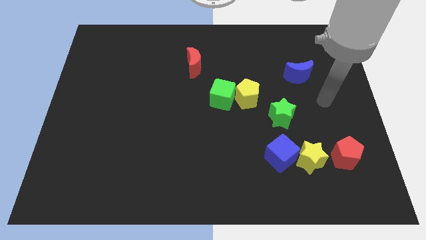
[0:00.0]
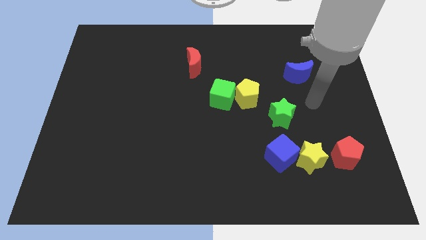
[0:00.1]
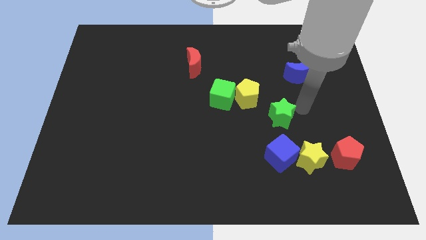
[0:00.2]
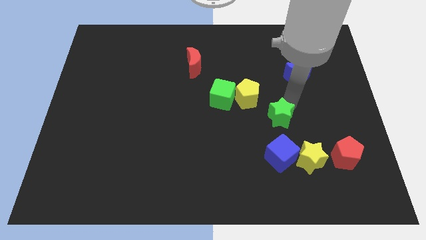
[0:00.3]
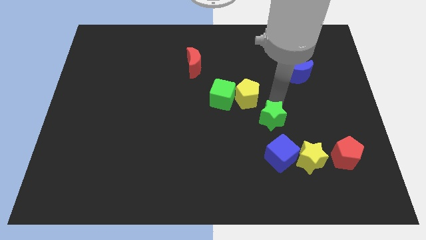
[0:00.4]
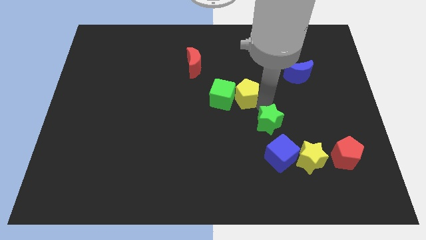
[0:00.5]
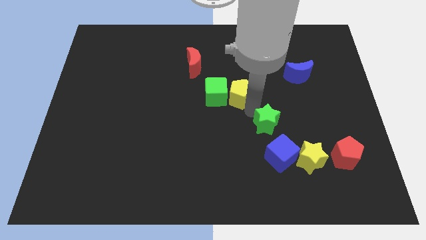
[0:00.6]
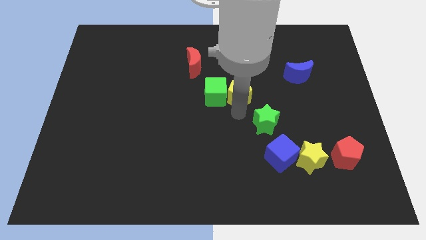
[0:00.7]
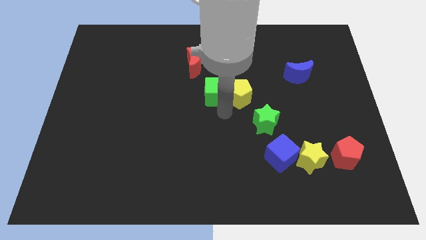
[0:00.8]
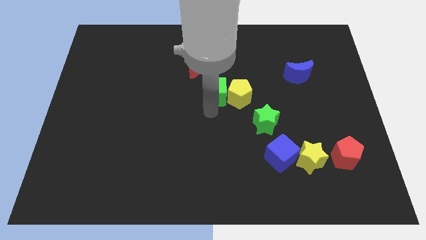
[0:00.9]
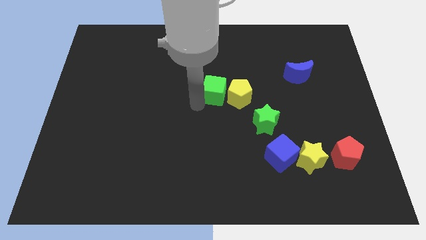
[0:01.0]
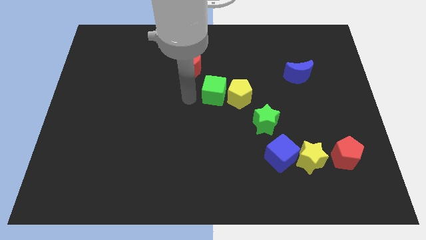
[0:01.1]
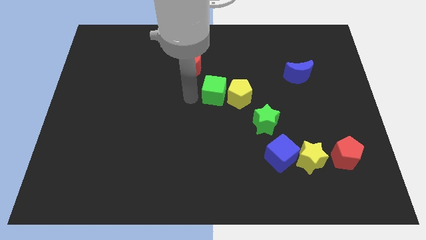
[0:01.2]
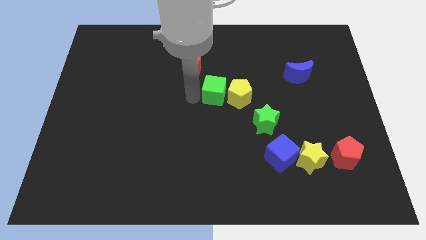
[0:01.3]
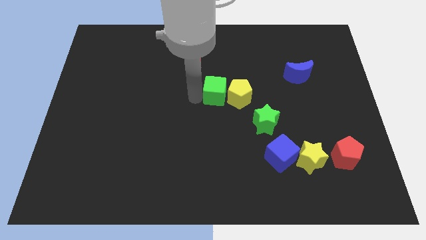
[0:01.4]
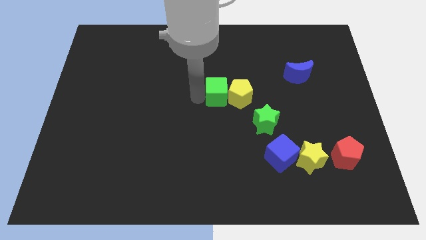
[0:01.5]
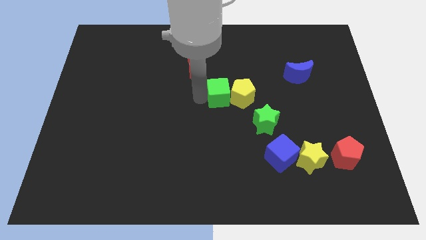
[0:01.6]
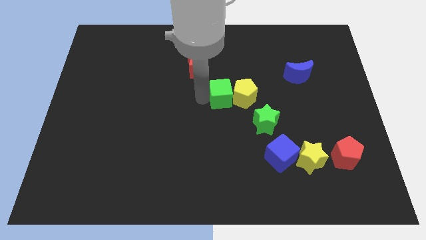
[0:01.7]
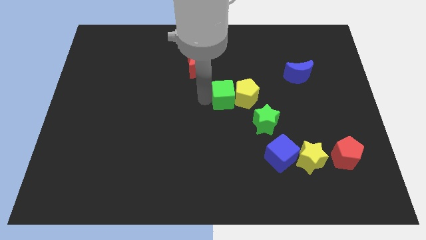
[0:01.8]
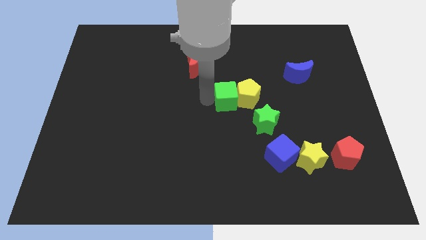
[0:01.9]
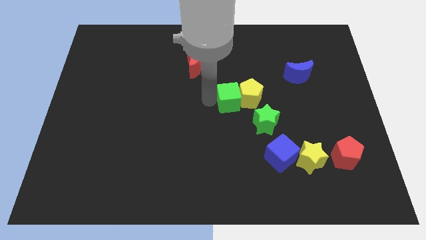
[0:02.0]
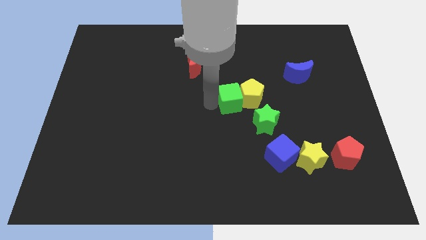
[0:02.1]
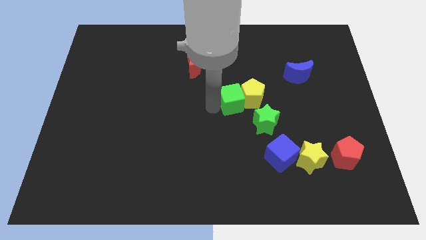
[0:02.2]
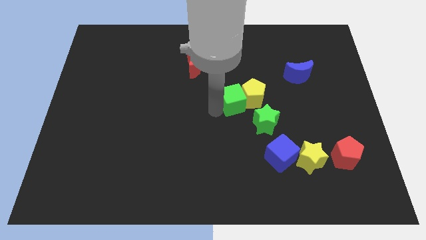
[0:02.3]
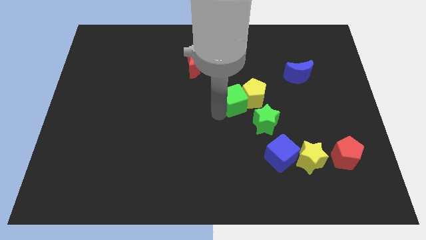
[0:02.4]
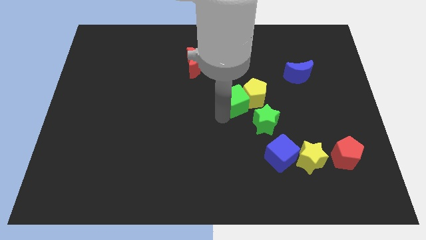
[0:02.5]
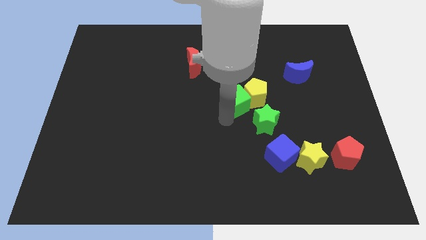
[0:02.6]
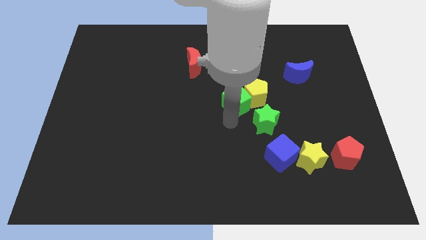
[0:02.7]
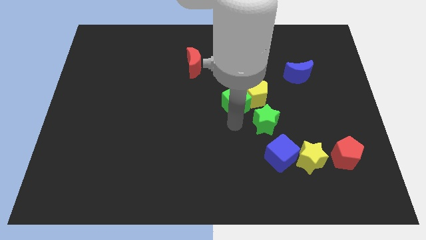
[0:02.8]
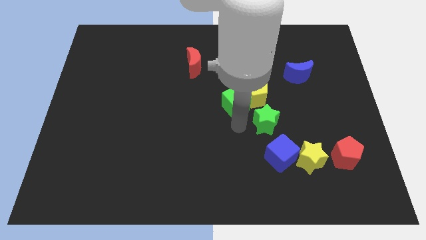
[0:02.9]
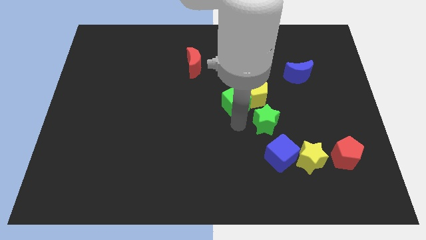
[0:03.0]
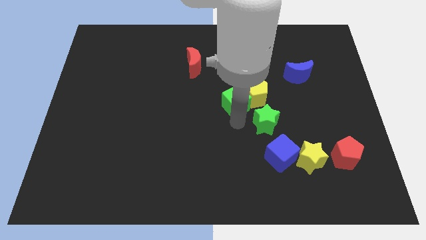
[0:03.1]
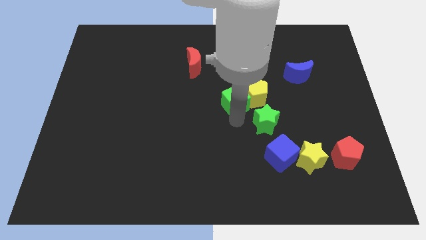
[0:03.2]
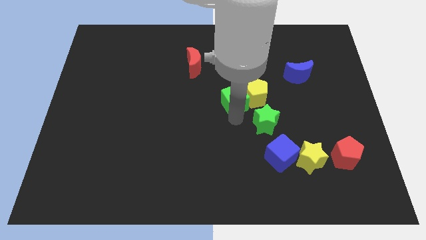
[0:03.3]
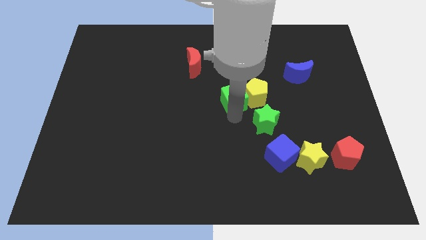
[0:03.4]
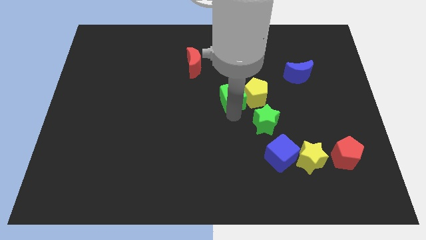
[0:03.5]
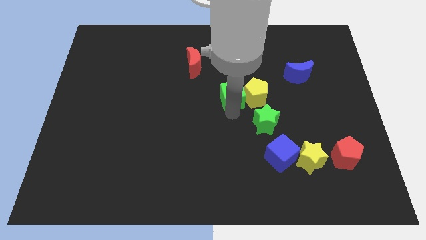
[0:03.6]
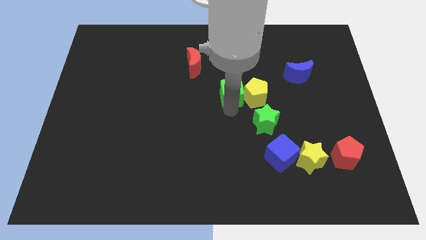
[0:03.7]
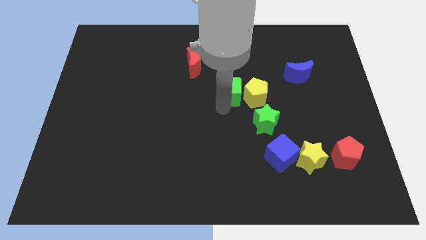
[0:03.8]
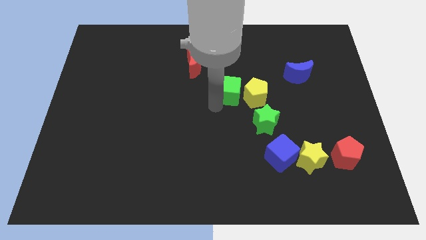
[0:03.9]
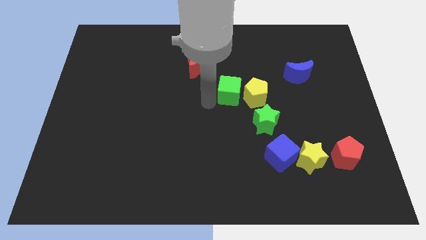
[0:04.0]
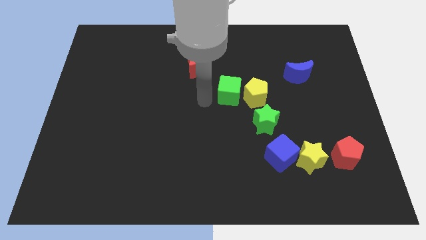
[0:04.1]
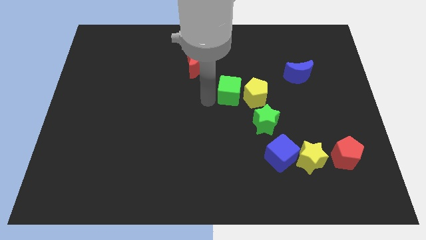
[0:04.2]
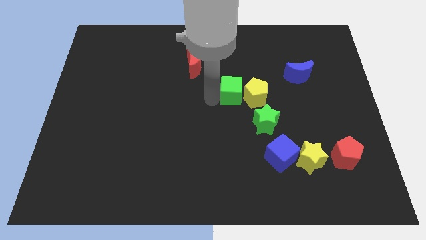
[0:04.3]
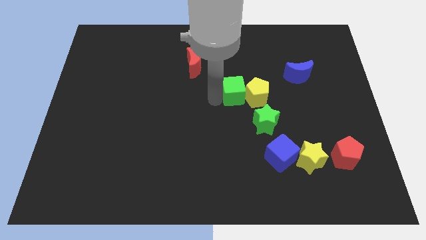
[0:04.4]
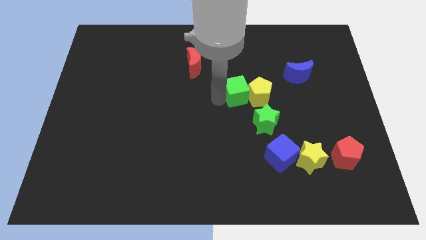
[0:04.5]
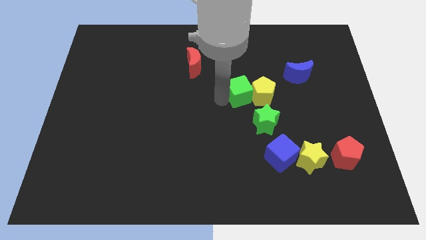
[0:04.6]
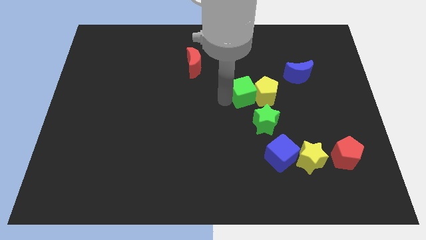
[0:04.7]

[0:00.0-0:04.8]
put the green cube to the top side of the green star

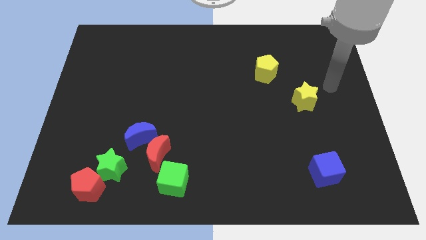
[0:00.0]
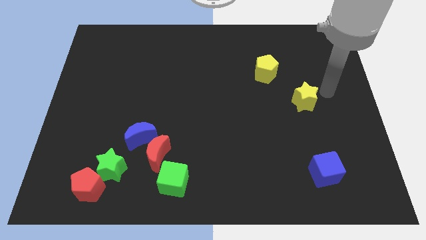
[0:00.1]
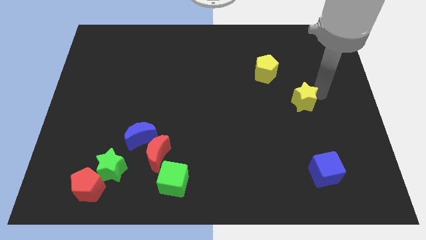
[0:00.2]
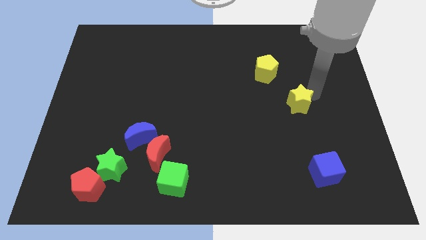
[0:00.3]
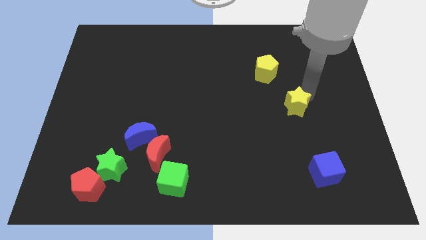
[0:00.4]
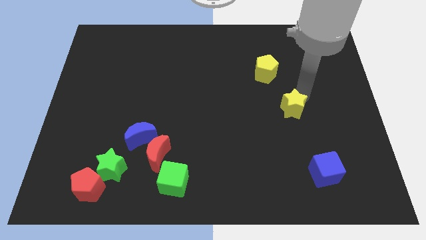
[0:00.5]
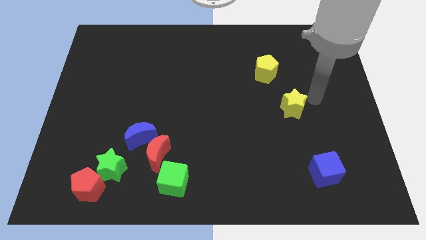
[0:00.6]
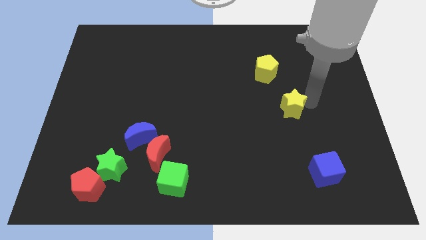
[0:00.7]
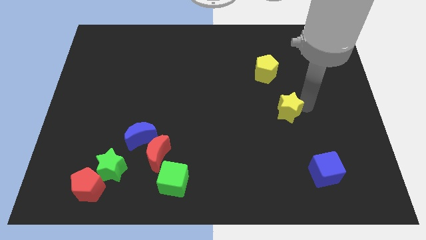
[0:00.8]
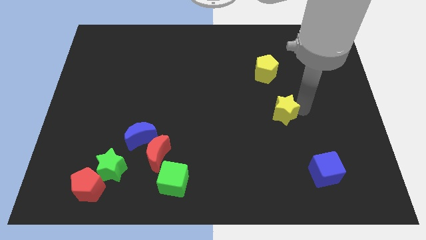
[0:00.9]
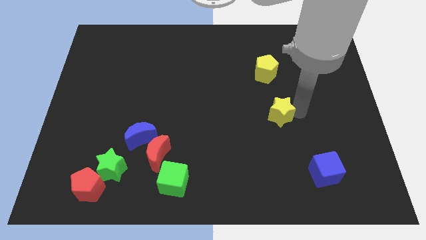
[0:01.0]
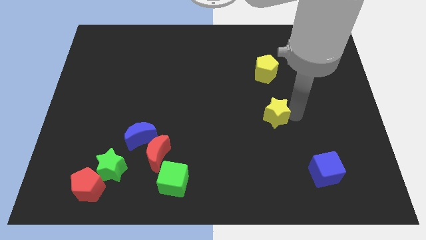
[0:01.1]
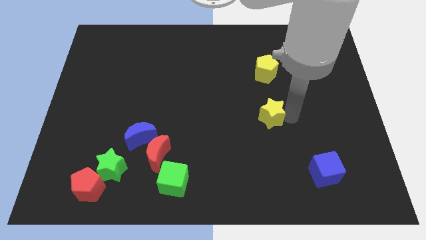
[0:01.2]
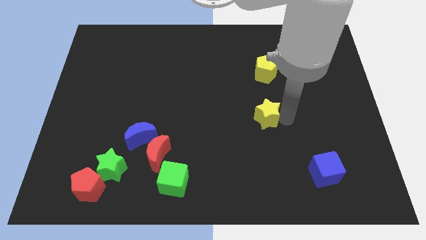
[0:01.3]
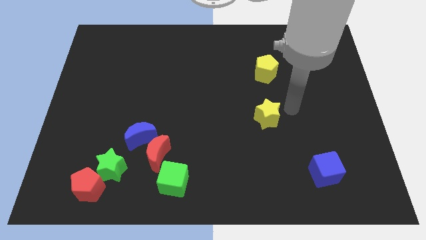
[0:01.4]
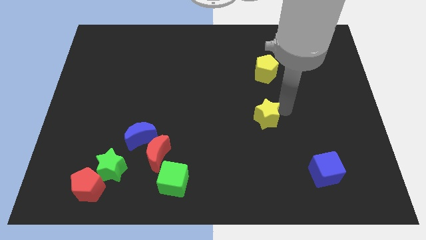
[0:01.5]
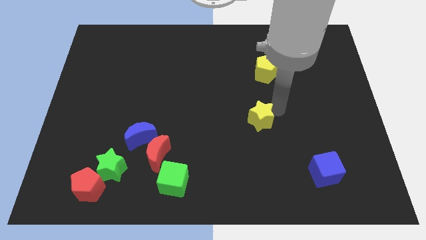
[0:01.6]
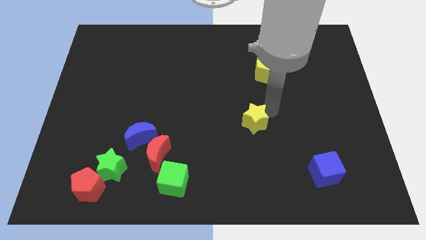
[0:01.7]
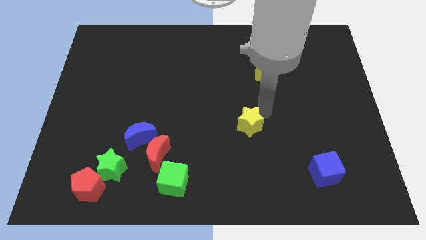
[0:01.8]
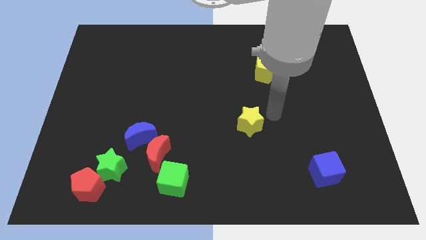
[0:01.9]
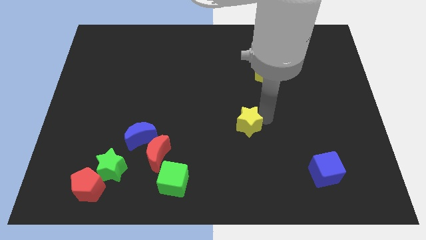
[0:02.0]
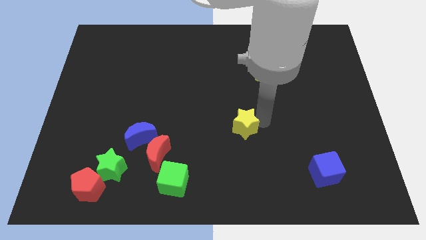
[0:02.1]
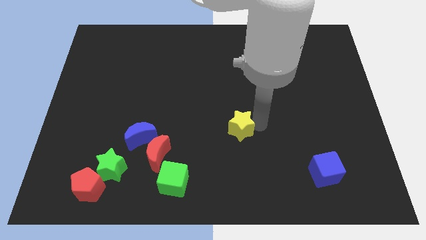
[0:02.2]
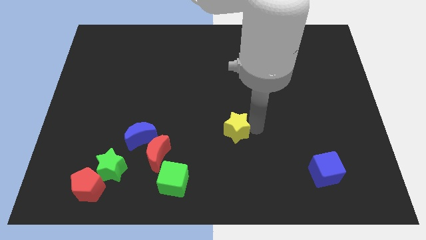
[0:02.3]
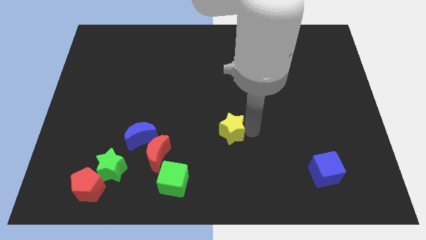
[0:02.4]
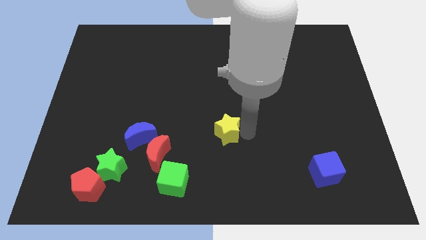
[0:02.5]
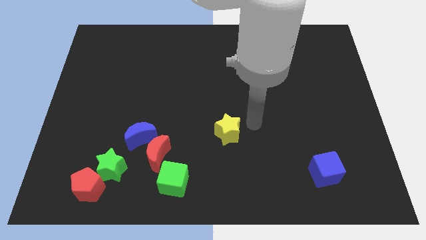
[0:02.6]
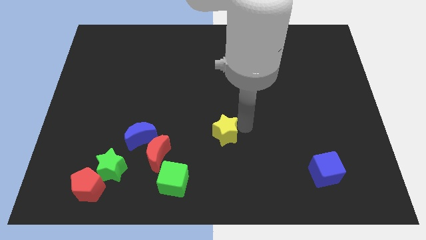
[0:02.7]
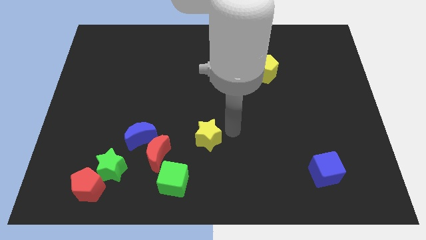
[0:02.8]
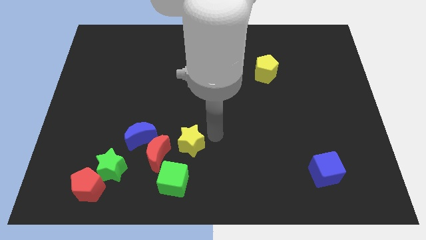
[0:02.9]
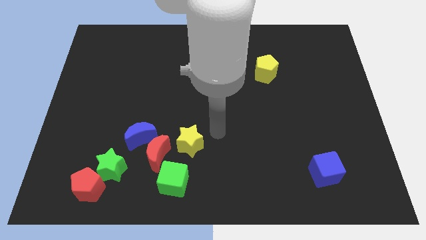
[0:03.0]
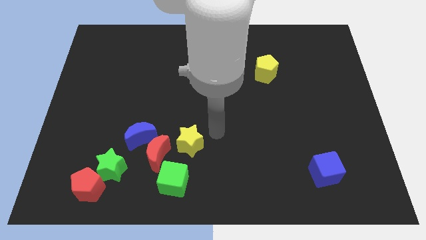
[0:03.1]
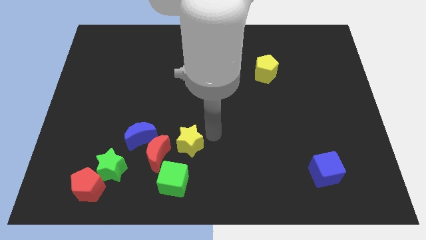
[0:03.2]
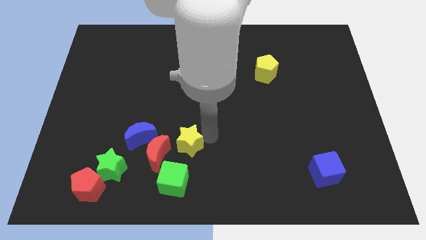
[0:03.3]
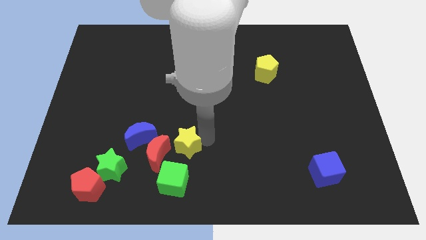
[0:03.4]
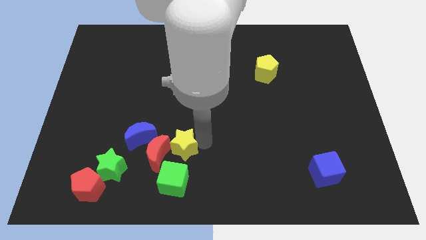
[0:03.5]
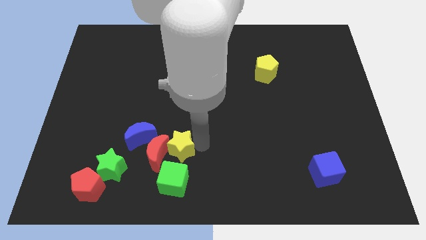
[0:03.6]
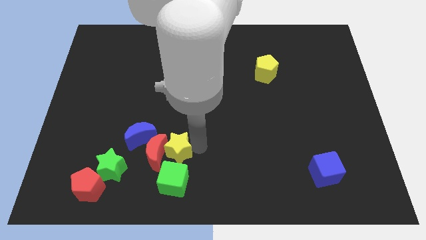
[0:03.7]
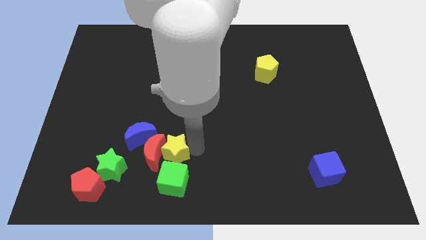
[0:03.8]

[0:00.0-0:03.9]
put the yellow star to the top left side of the green cube
